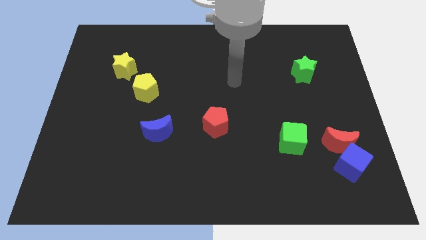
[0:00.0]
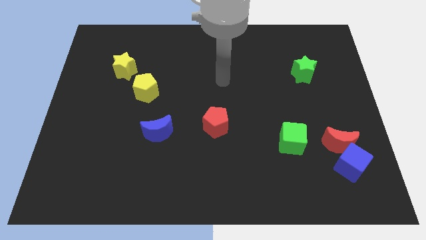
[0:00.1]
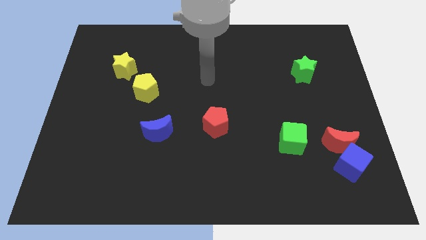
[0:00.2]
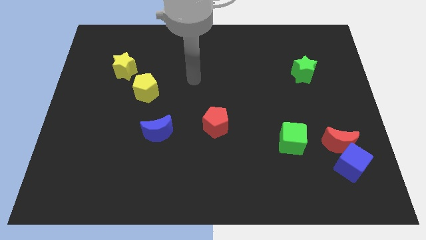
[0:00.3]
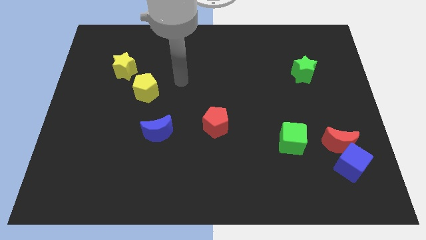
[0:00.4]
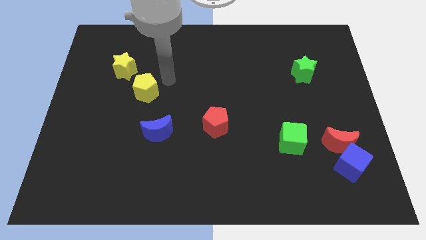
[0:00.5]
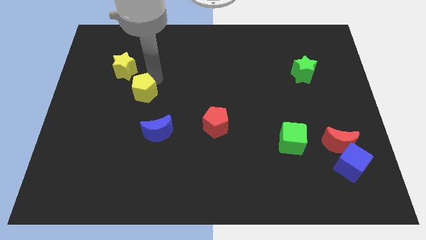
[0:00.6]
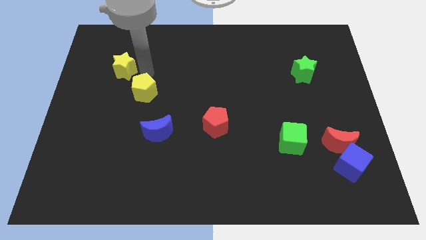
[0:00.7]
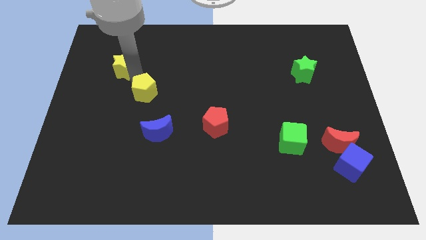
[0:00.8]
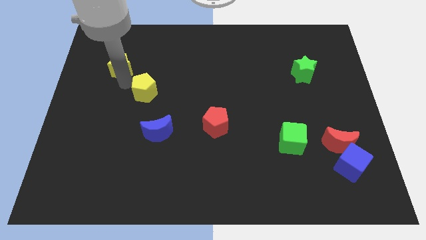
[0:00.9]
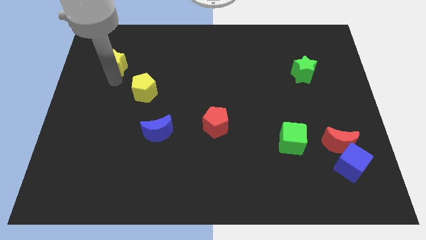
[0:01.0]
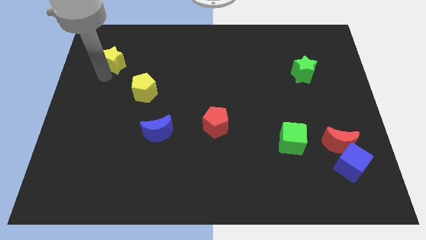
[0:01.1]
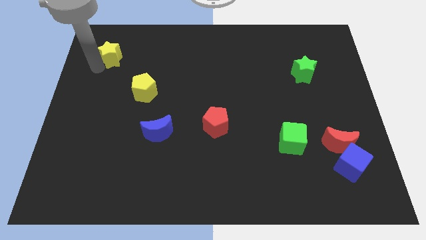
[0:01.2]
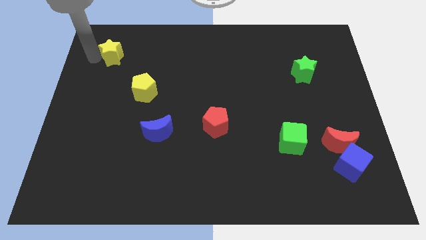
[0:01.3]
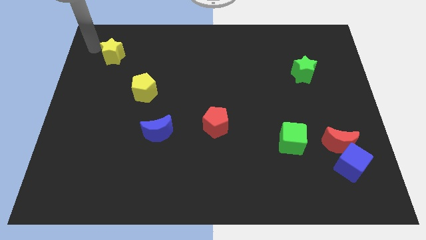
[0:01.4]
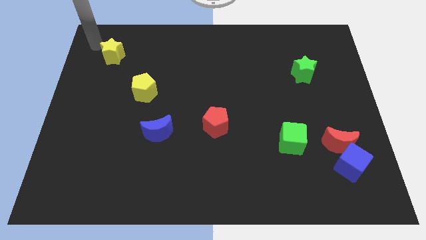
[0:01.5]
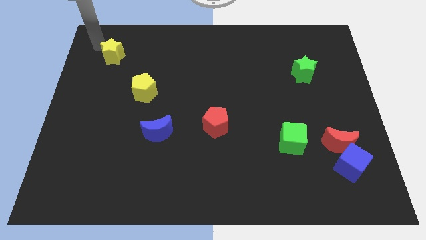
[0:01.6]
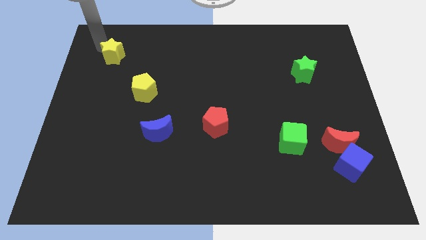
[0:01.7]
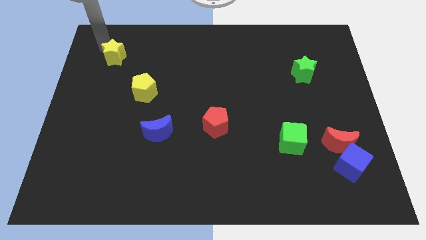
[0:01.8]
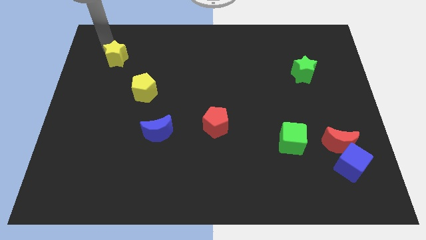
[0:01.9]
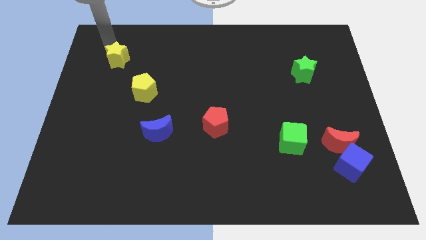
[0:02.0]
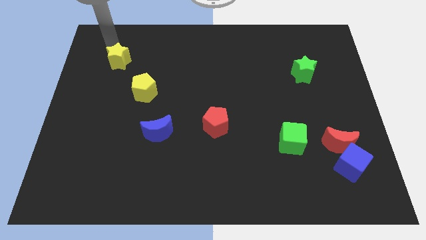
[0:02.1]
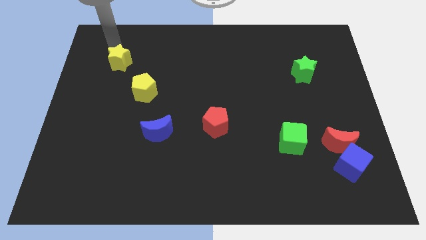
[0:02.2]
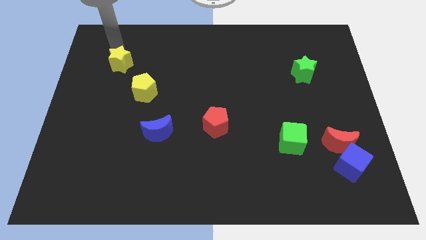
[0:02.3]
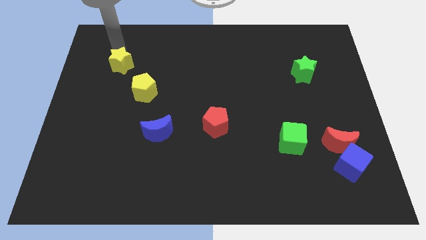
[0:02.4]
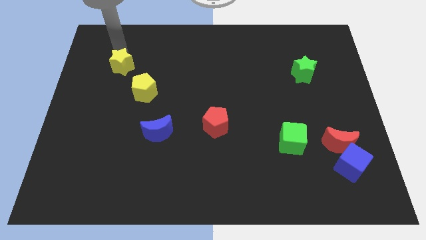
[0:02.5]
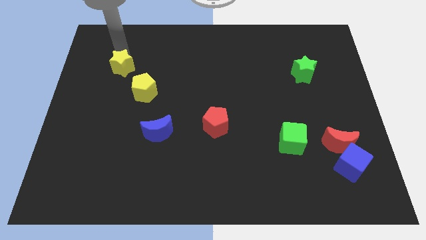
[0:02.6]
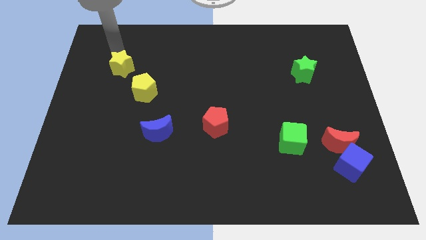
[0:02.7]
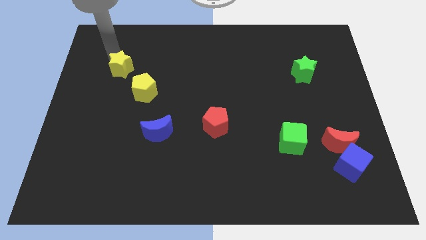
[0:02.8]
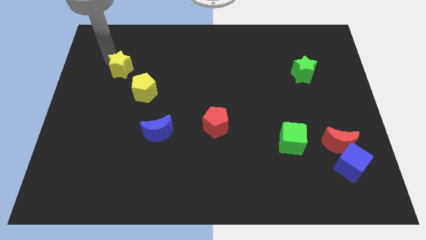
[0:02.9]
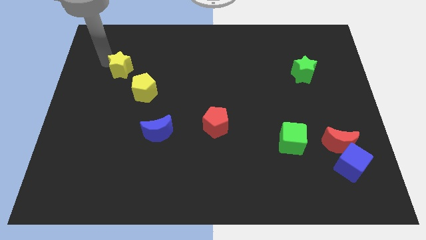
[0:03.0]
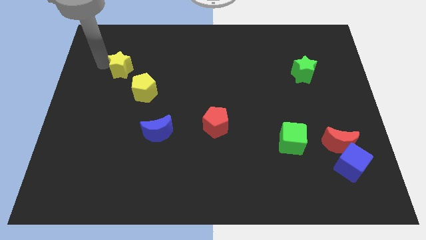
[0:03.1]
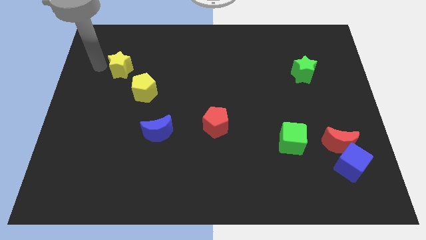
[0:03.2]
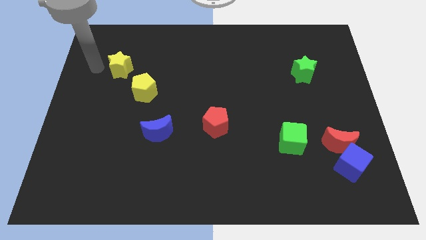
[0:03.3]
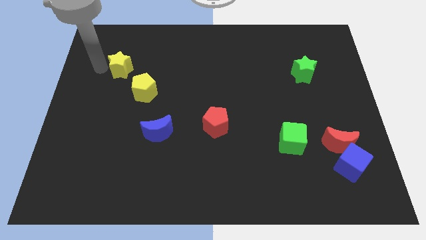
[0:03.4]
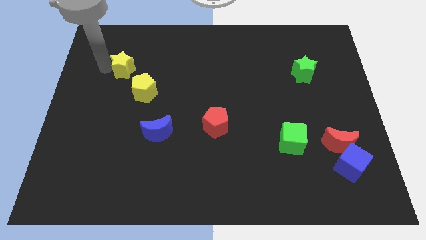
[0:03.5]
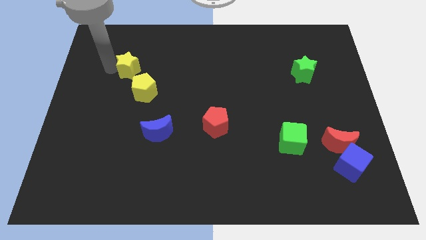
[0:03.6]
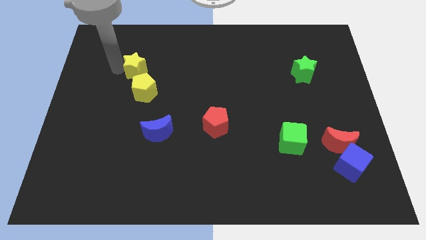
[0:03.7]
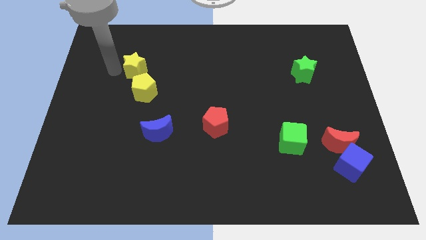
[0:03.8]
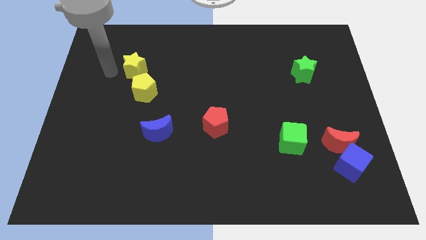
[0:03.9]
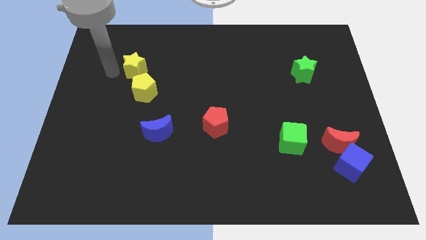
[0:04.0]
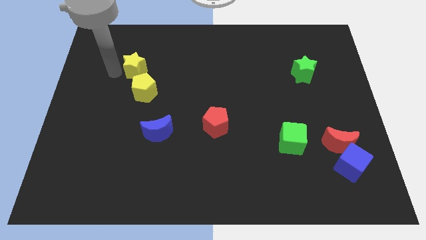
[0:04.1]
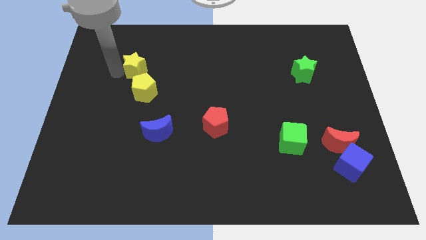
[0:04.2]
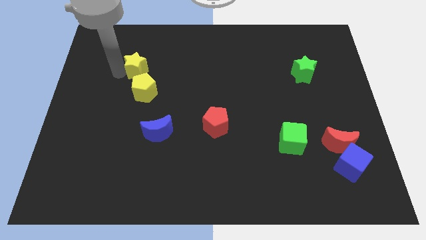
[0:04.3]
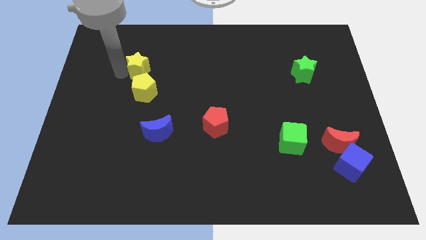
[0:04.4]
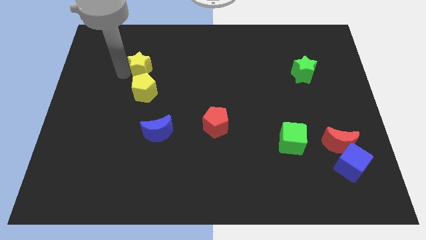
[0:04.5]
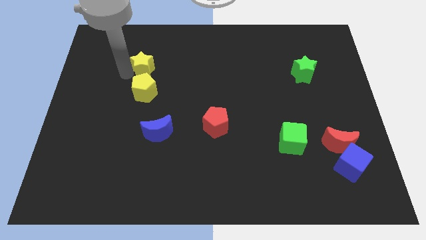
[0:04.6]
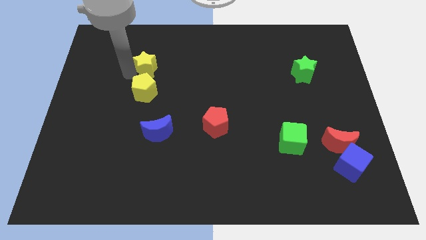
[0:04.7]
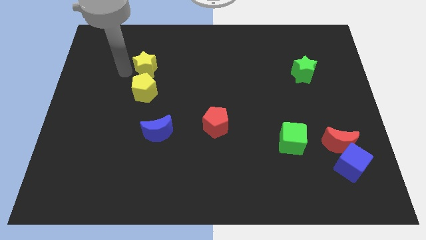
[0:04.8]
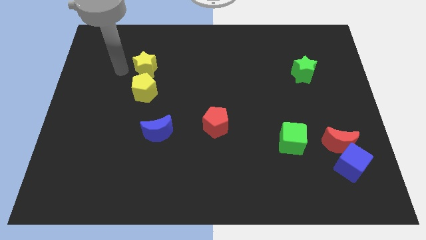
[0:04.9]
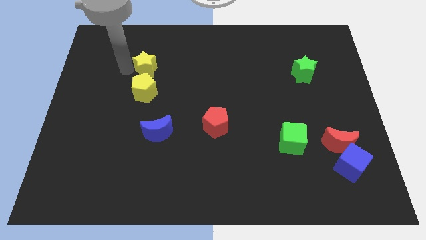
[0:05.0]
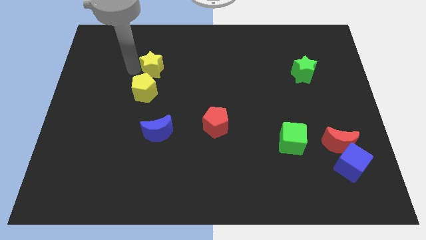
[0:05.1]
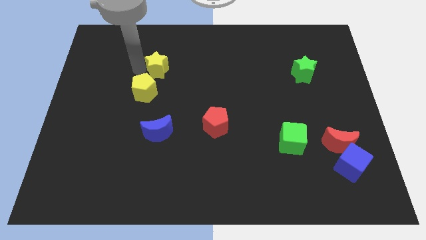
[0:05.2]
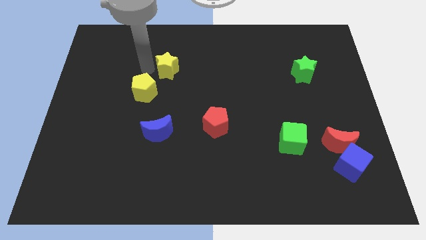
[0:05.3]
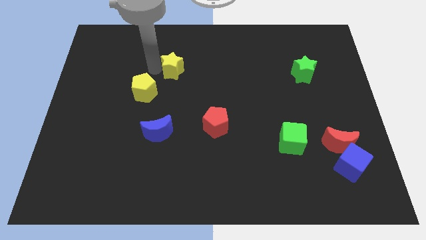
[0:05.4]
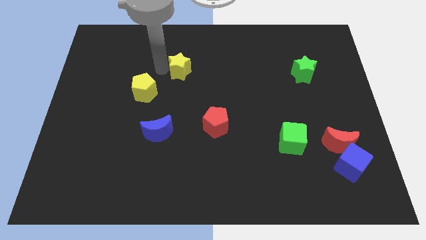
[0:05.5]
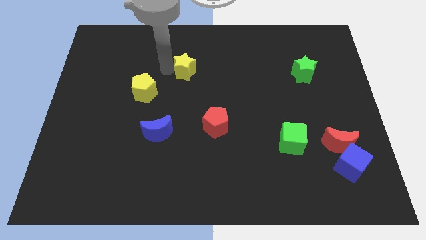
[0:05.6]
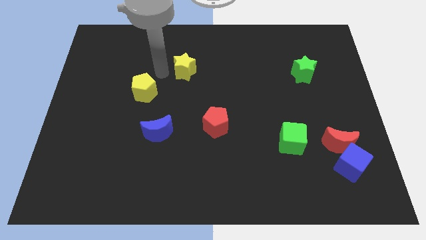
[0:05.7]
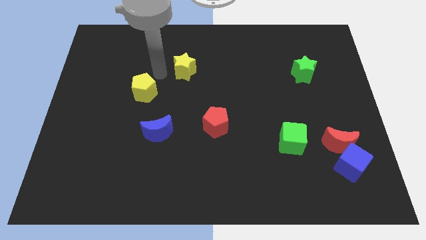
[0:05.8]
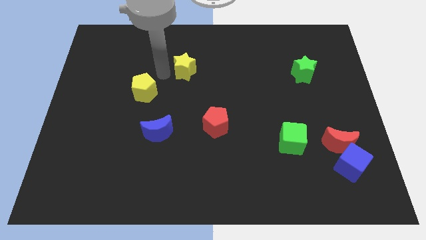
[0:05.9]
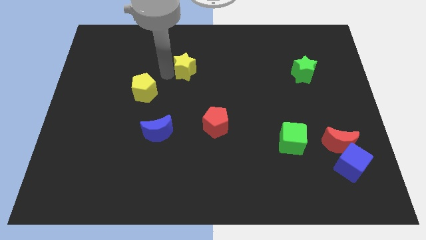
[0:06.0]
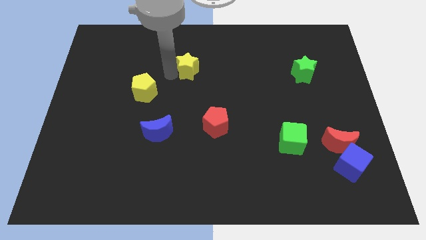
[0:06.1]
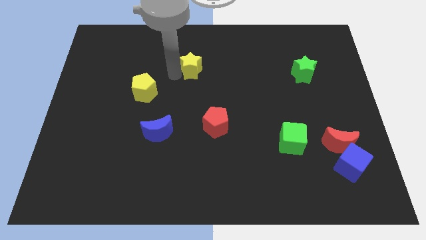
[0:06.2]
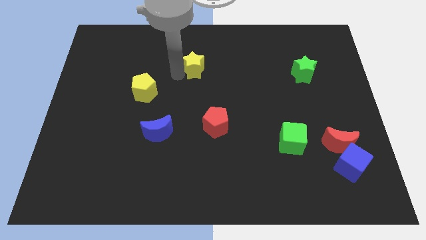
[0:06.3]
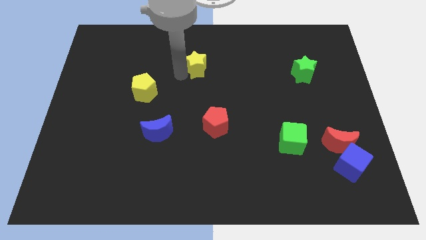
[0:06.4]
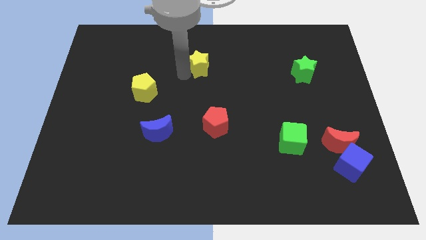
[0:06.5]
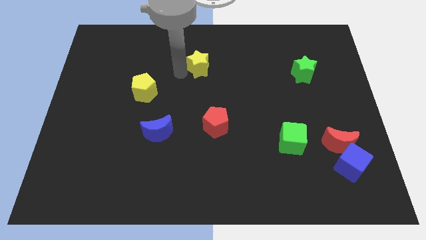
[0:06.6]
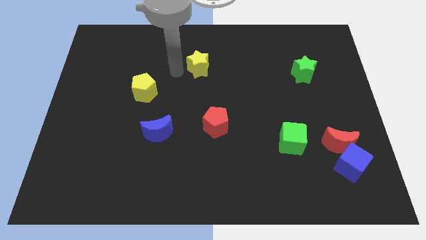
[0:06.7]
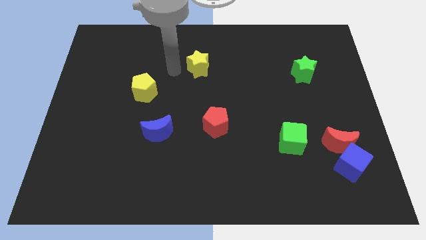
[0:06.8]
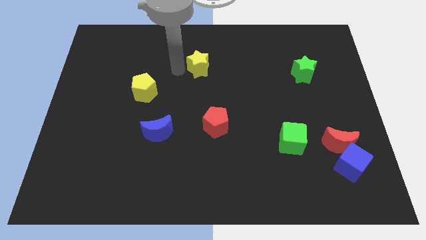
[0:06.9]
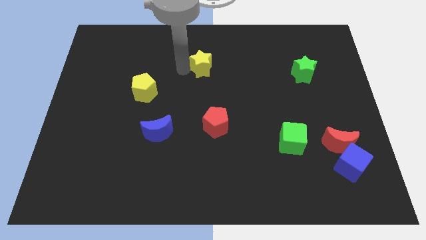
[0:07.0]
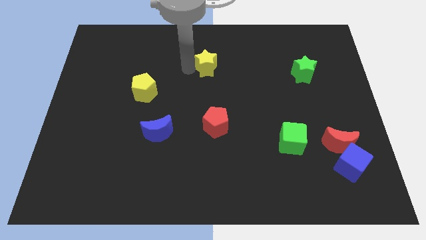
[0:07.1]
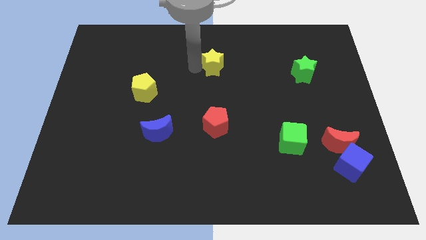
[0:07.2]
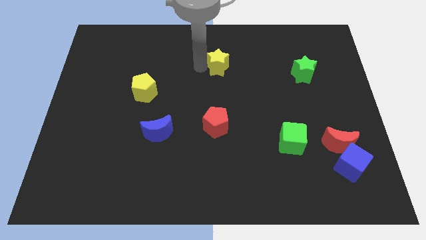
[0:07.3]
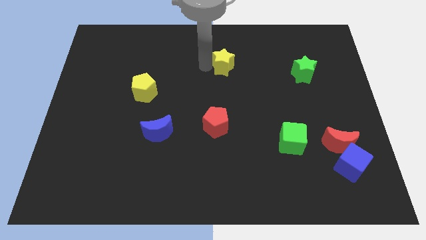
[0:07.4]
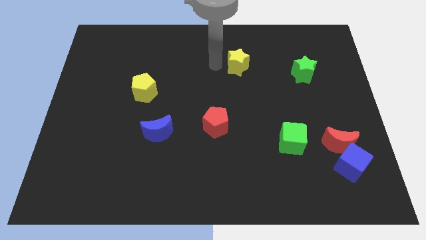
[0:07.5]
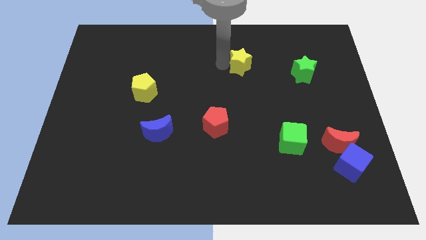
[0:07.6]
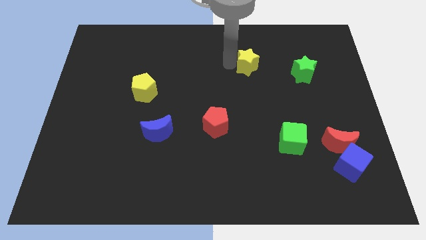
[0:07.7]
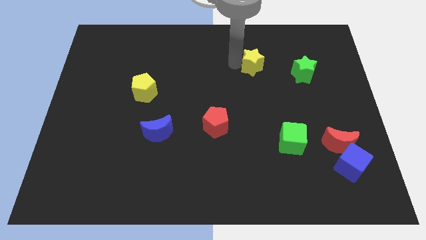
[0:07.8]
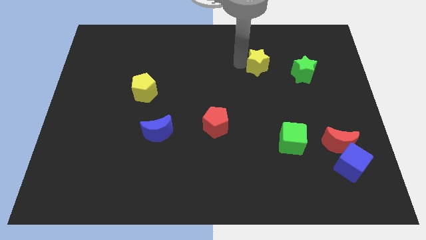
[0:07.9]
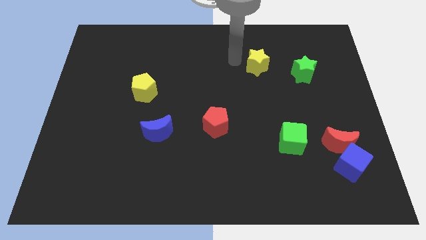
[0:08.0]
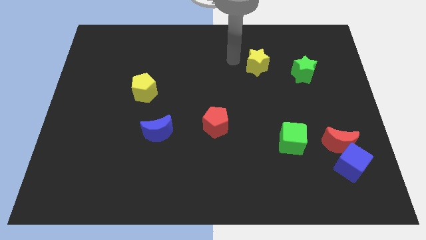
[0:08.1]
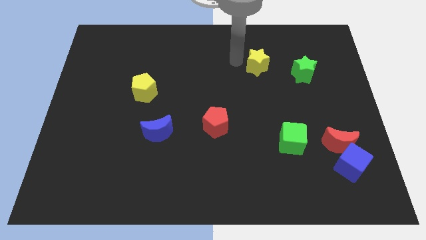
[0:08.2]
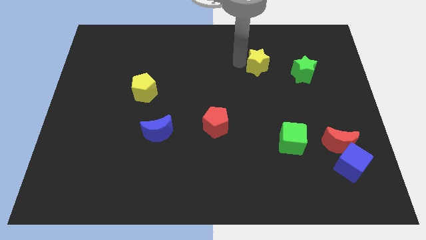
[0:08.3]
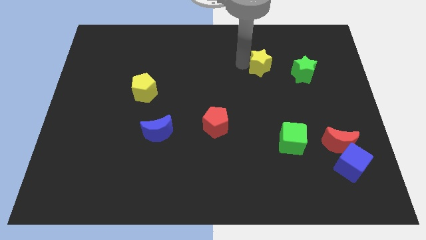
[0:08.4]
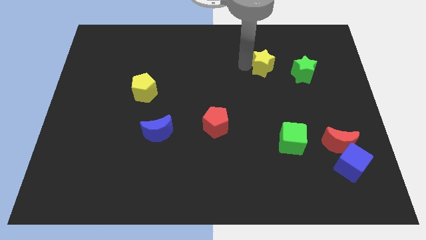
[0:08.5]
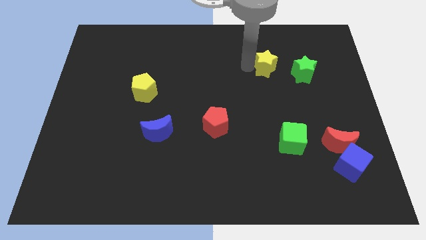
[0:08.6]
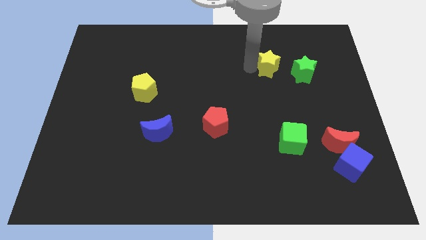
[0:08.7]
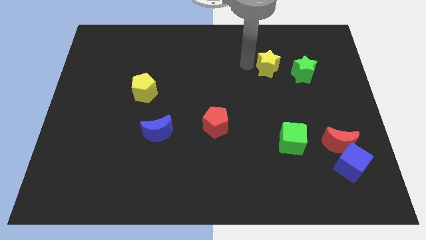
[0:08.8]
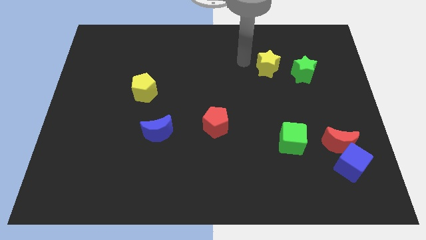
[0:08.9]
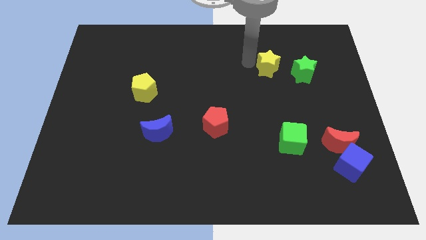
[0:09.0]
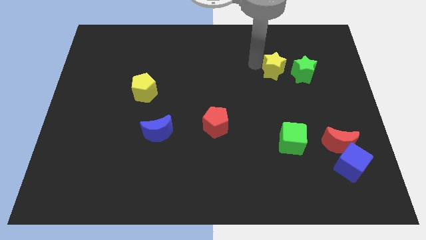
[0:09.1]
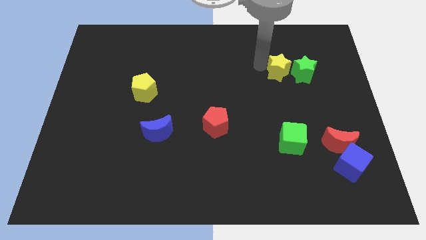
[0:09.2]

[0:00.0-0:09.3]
move the yellow star towards the green star
